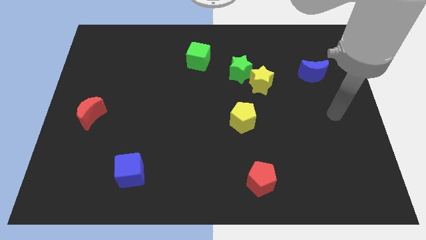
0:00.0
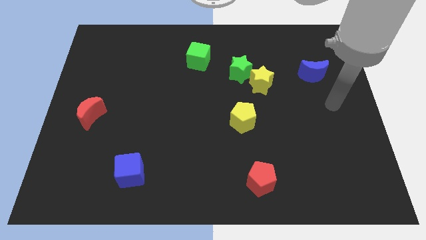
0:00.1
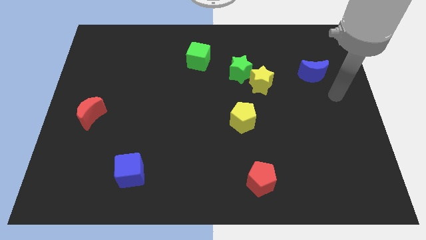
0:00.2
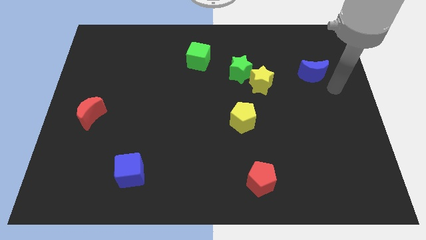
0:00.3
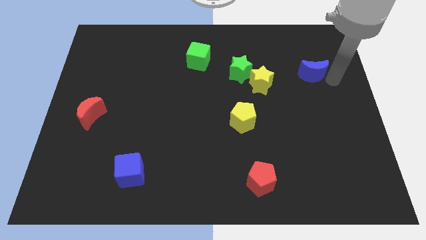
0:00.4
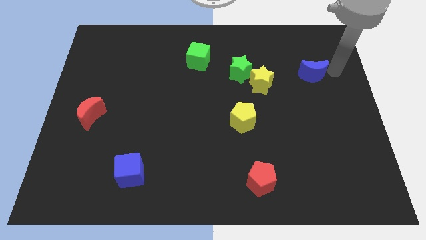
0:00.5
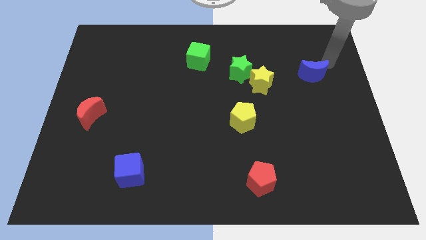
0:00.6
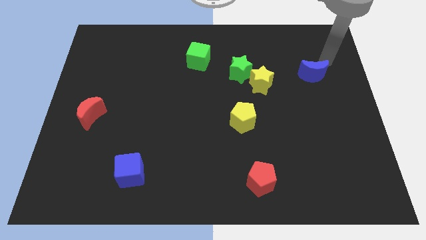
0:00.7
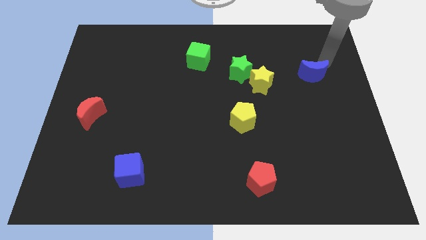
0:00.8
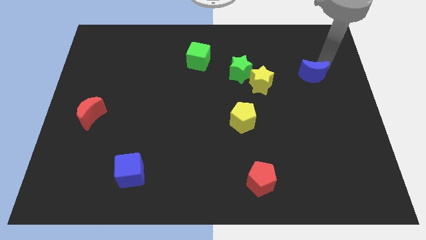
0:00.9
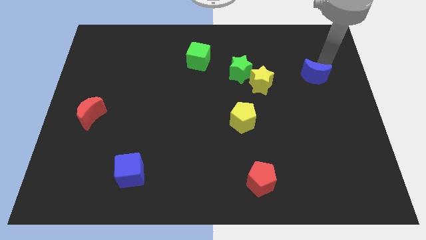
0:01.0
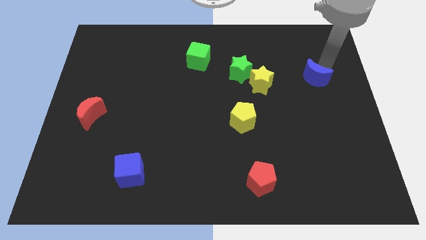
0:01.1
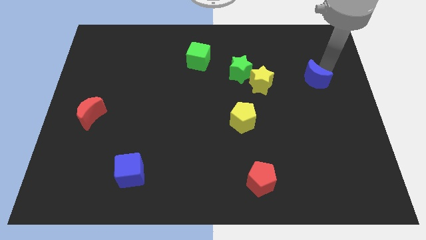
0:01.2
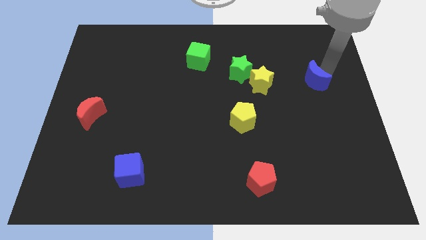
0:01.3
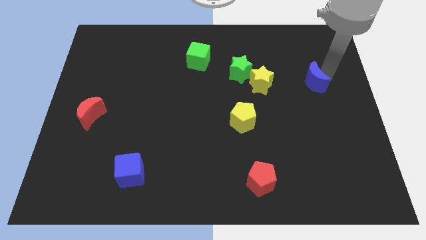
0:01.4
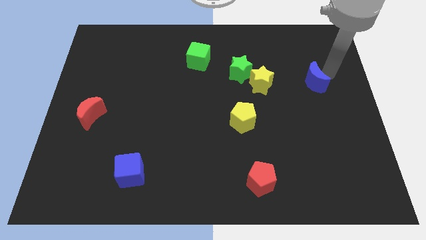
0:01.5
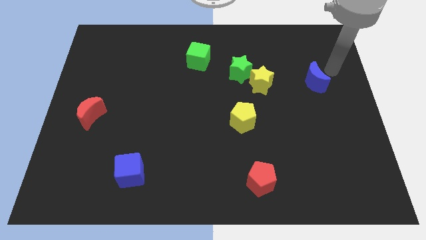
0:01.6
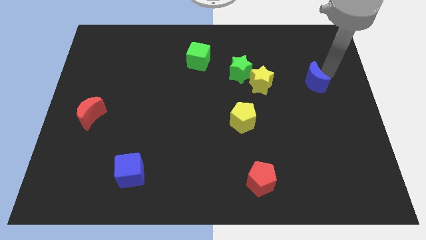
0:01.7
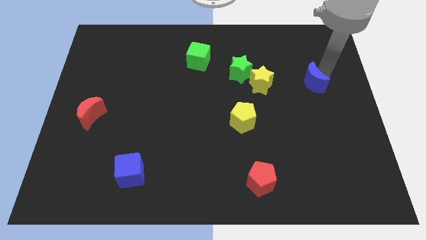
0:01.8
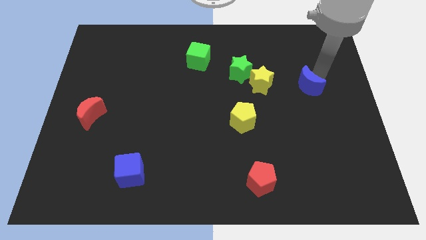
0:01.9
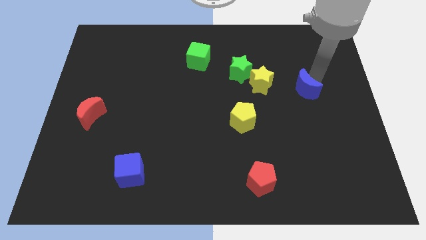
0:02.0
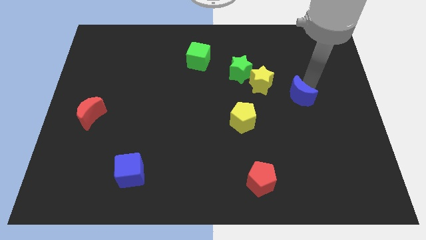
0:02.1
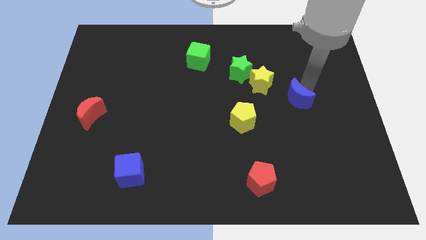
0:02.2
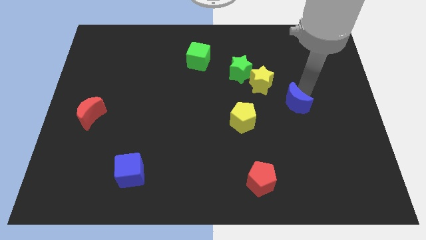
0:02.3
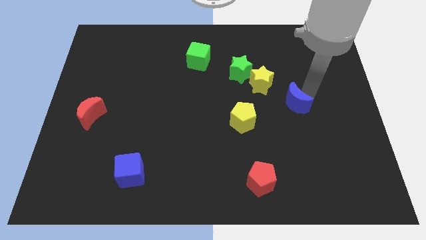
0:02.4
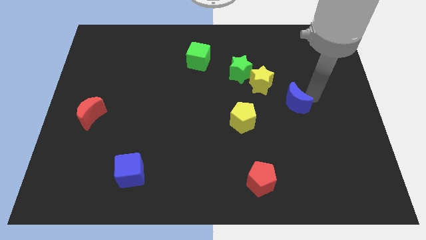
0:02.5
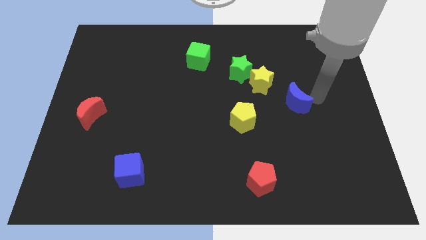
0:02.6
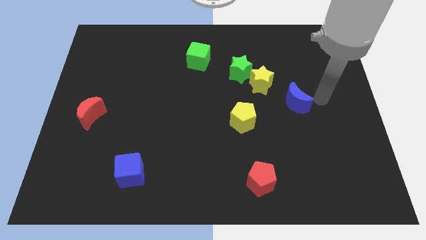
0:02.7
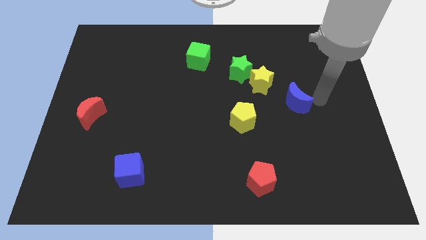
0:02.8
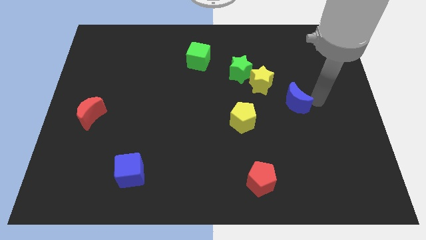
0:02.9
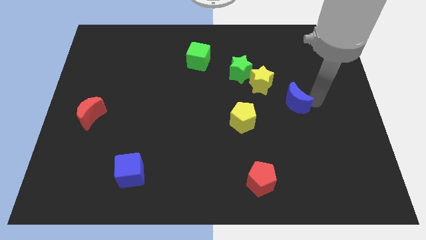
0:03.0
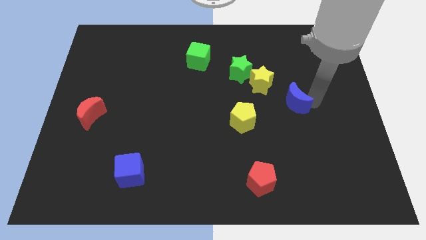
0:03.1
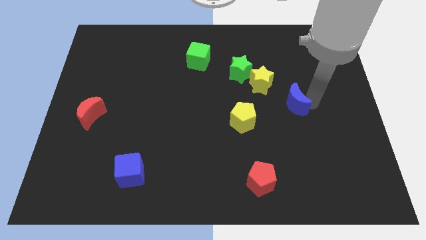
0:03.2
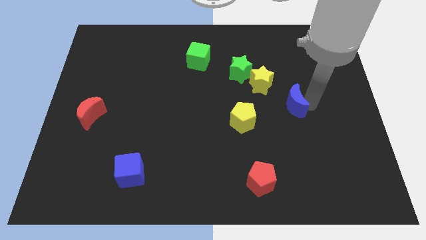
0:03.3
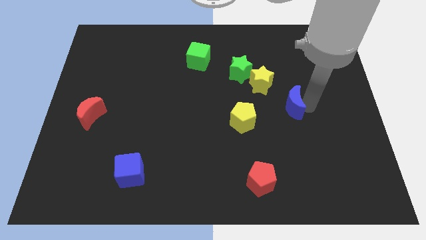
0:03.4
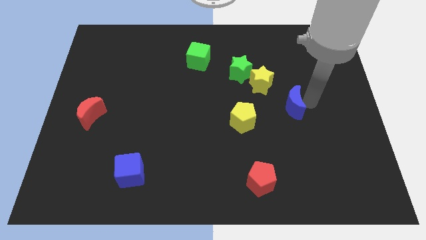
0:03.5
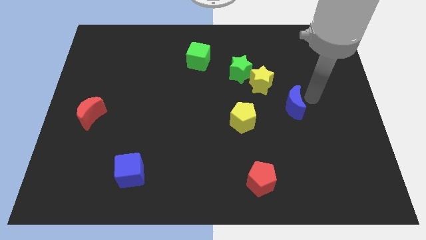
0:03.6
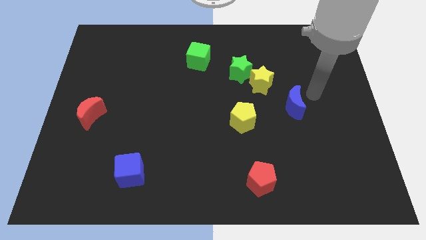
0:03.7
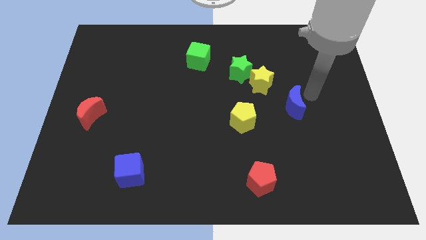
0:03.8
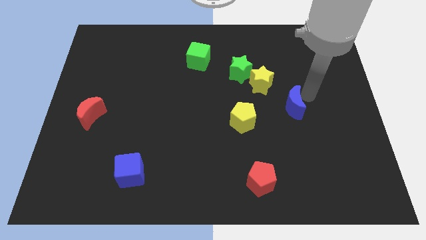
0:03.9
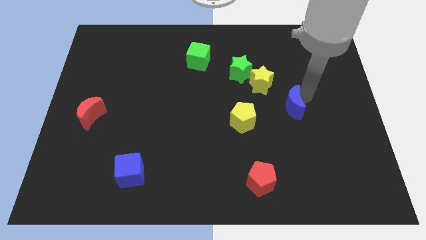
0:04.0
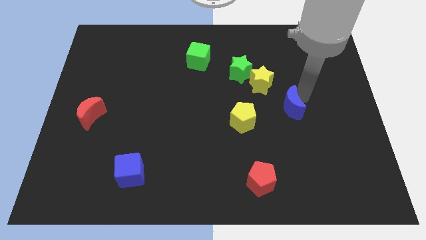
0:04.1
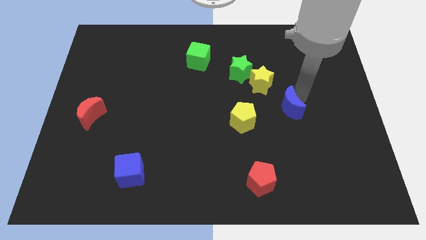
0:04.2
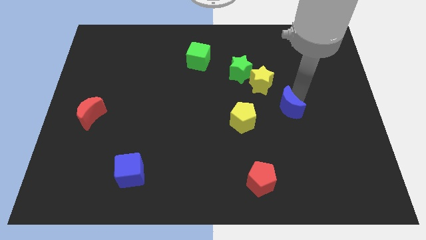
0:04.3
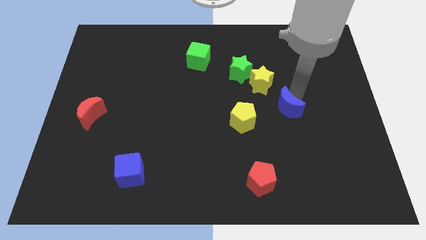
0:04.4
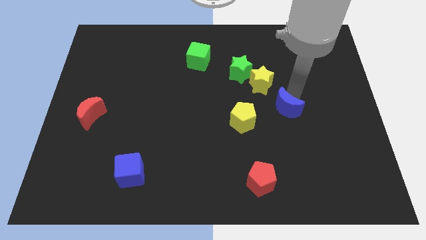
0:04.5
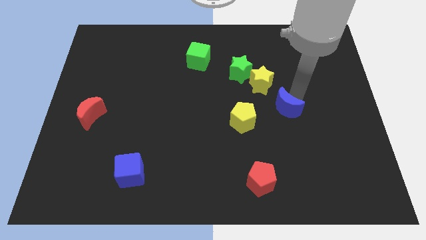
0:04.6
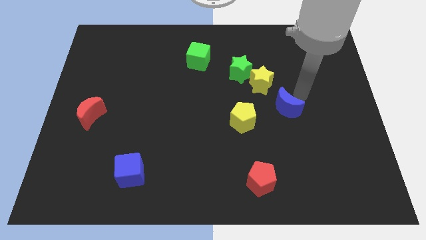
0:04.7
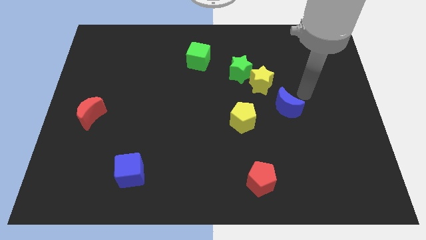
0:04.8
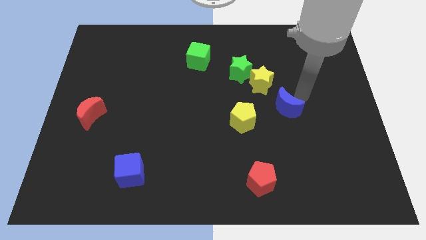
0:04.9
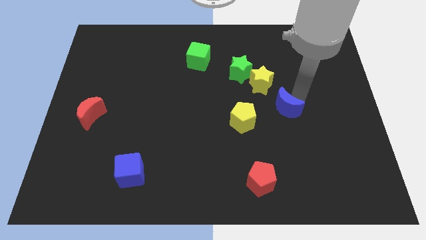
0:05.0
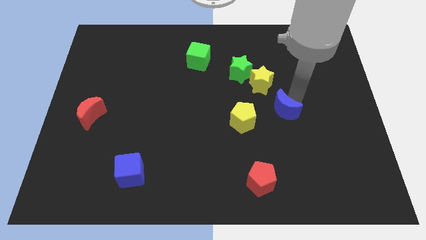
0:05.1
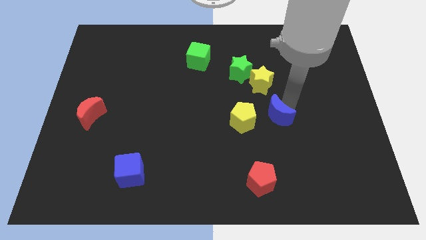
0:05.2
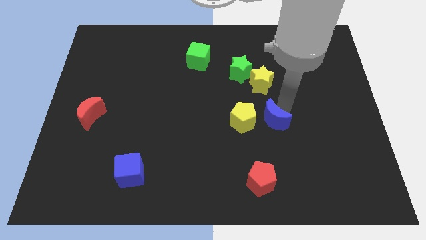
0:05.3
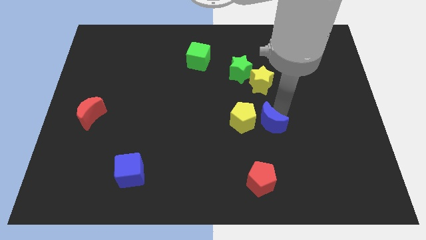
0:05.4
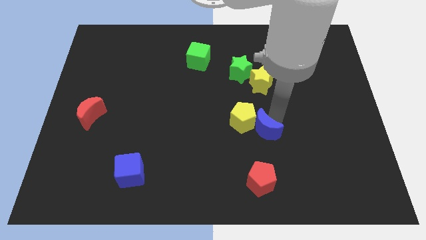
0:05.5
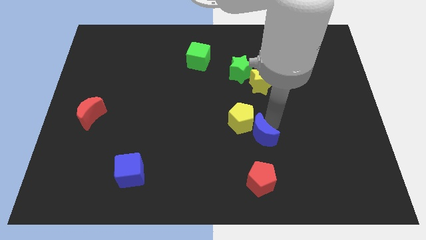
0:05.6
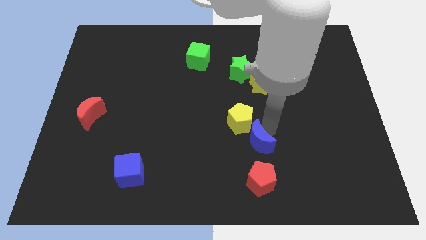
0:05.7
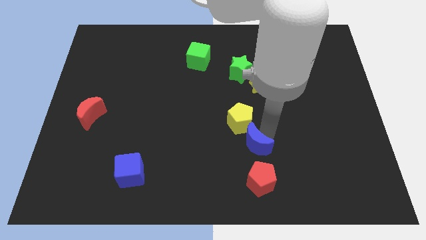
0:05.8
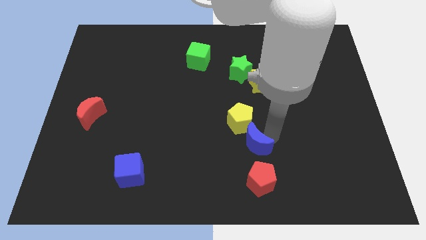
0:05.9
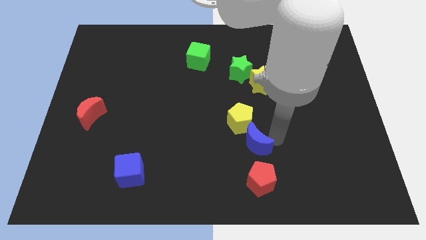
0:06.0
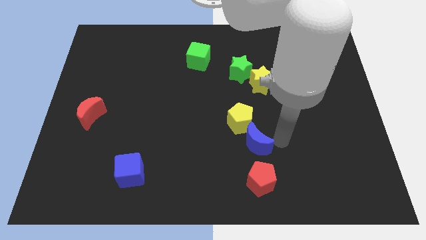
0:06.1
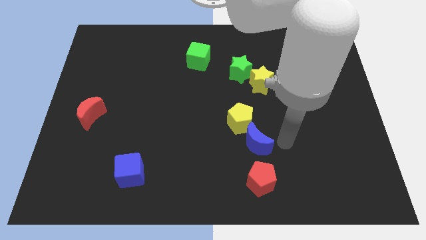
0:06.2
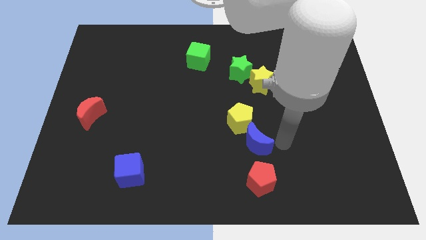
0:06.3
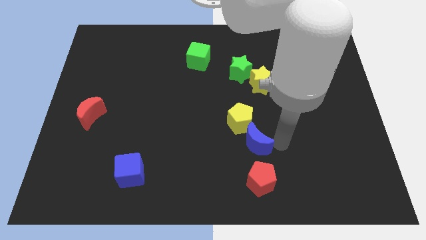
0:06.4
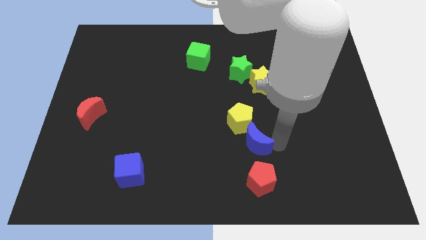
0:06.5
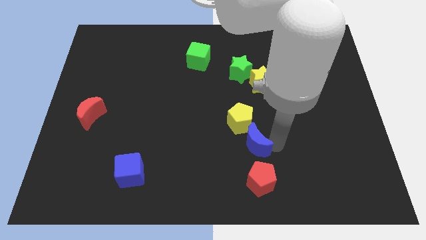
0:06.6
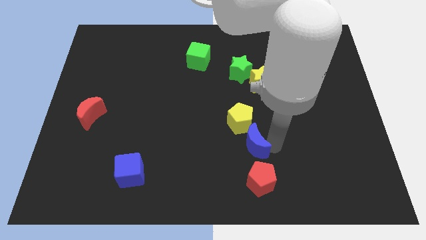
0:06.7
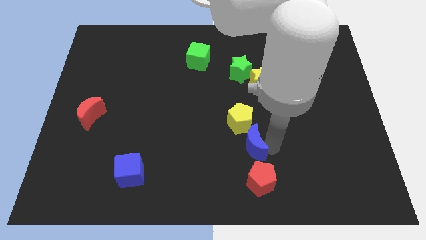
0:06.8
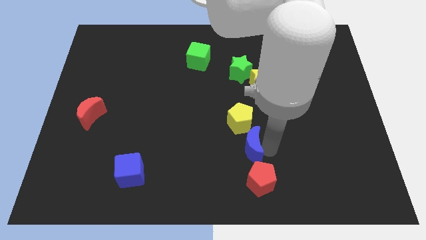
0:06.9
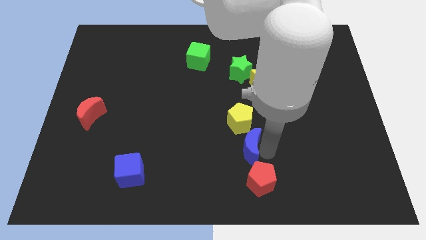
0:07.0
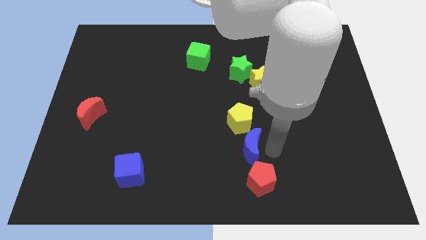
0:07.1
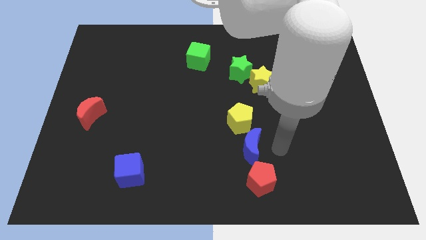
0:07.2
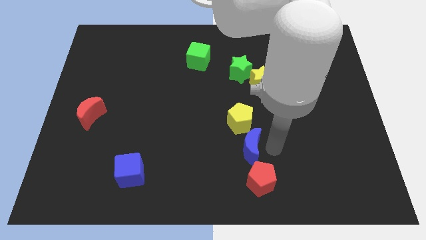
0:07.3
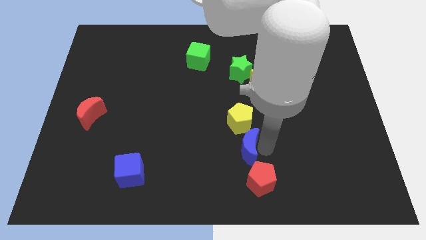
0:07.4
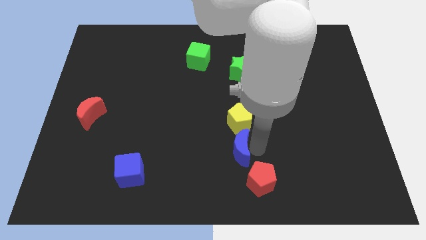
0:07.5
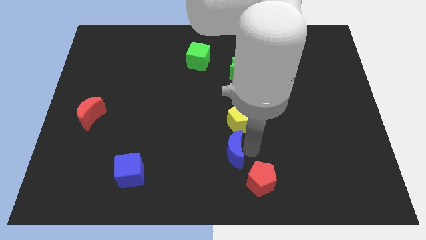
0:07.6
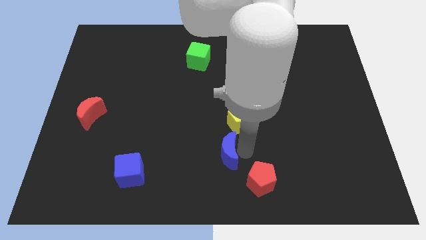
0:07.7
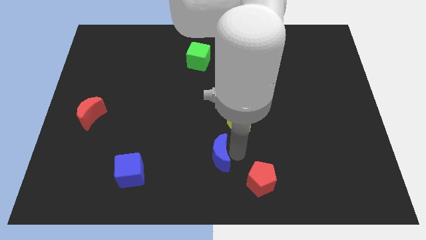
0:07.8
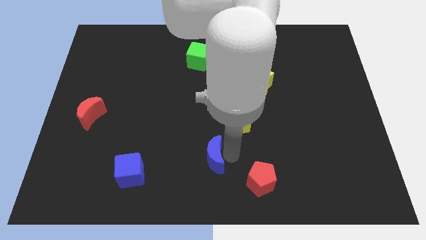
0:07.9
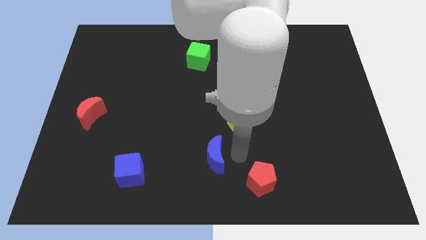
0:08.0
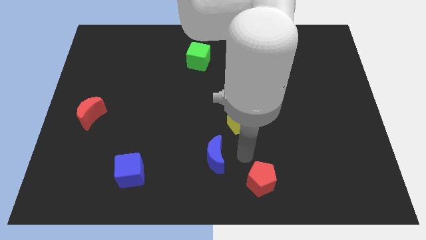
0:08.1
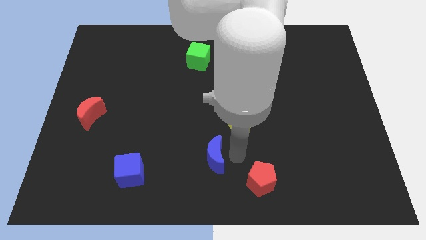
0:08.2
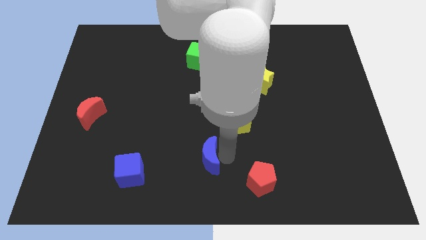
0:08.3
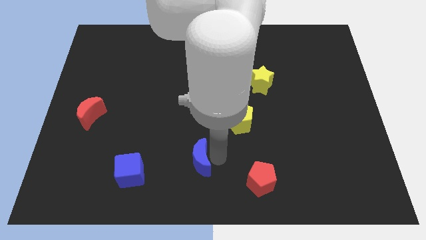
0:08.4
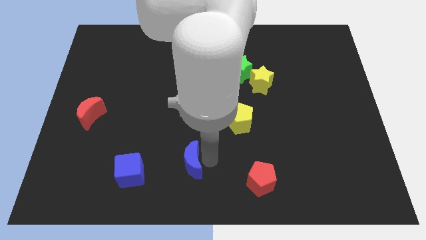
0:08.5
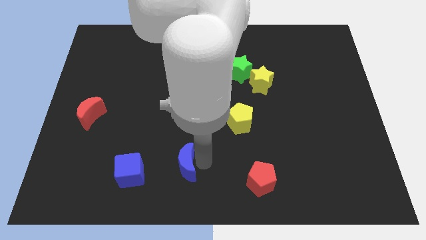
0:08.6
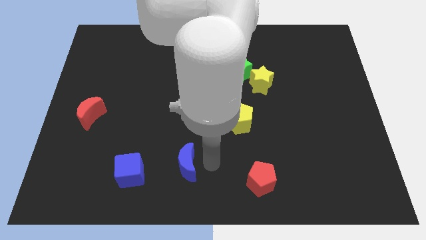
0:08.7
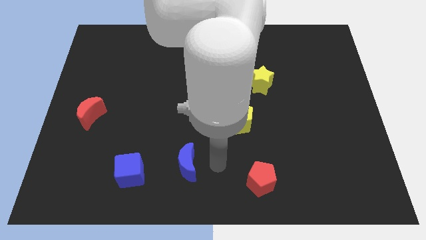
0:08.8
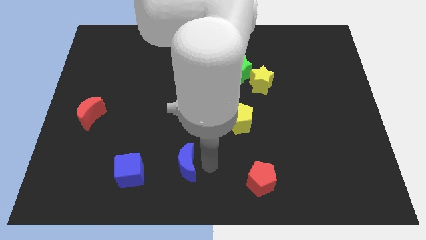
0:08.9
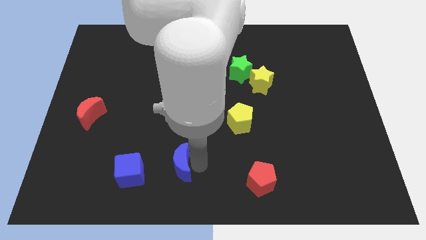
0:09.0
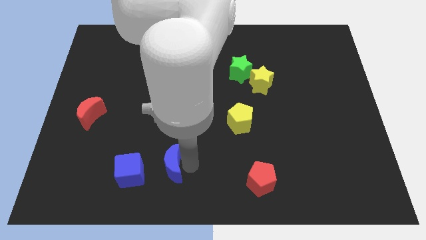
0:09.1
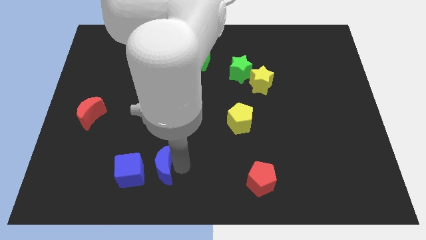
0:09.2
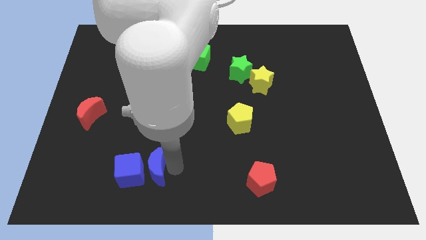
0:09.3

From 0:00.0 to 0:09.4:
slide the blue moon next to the blue cube
